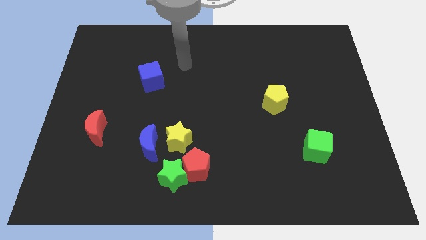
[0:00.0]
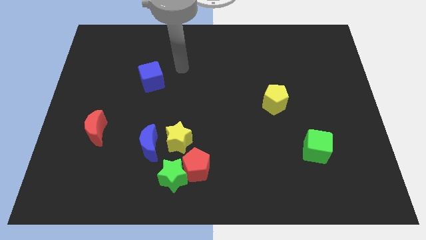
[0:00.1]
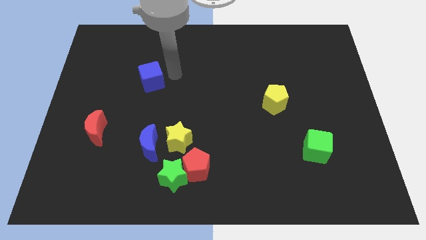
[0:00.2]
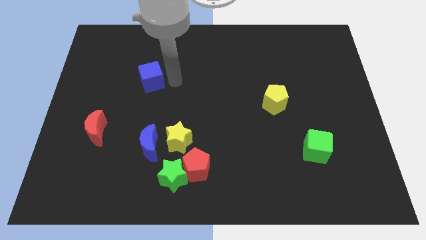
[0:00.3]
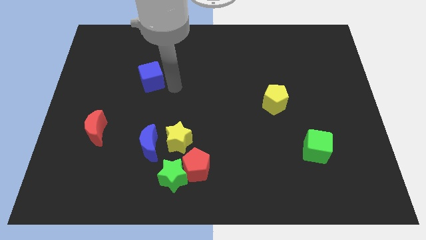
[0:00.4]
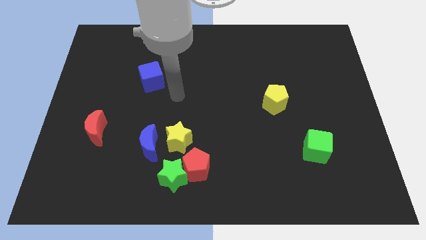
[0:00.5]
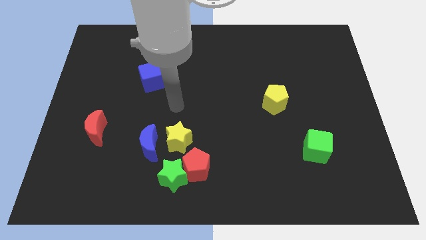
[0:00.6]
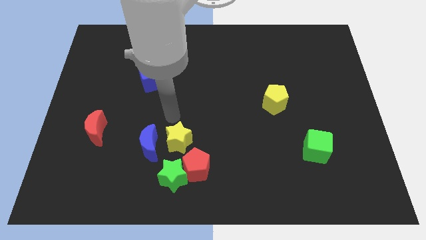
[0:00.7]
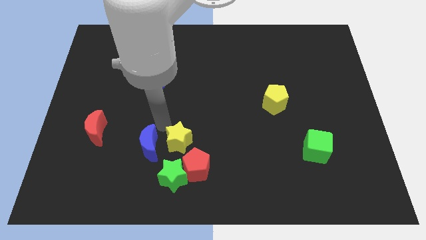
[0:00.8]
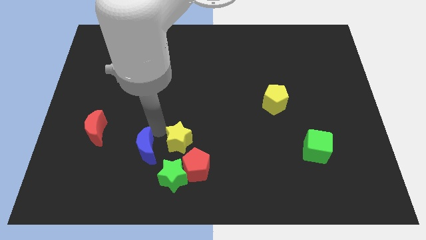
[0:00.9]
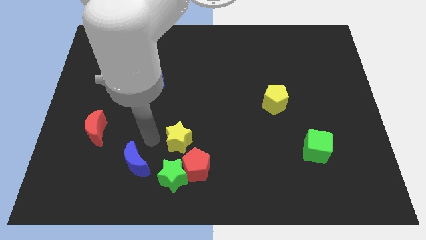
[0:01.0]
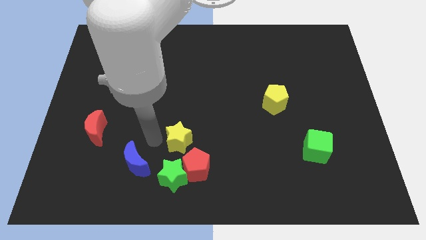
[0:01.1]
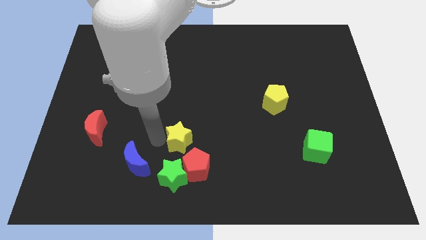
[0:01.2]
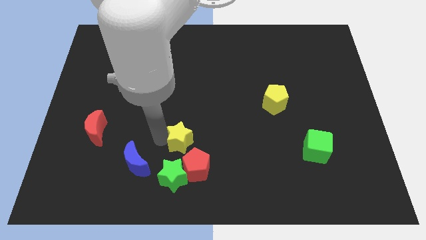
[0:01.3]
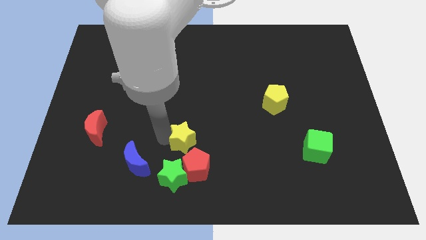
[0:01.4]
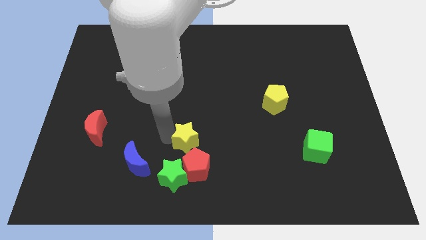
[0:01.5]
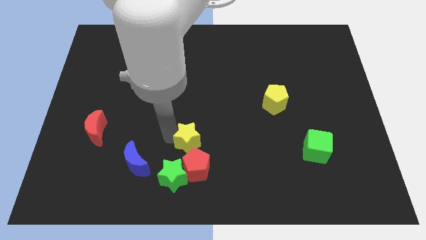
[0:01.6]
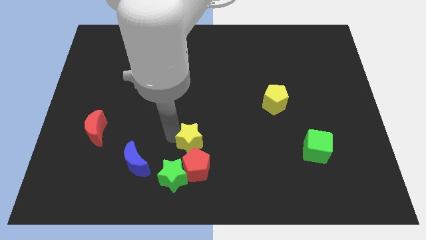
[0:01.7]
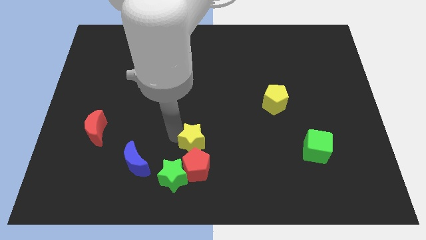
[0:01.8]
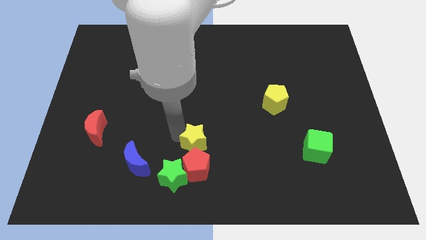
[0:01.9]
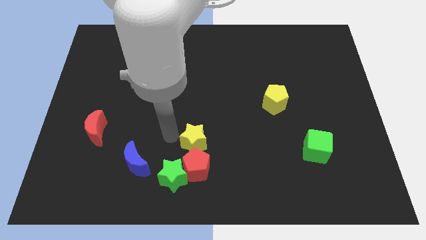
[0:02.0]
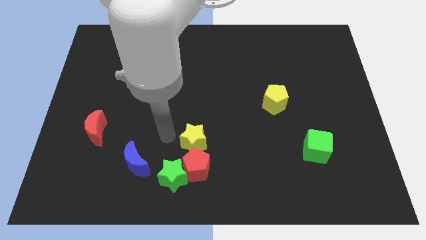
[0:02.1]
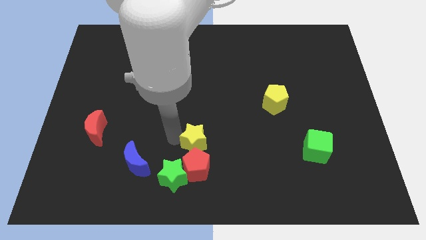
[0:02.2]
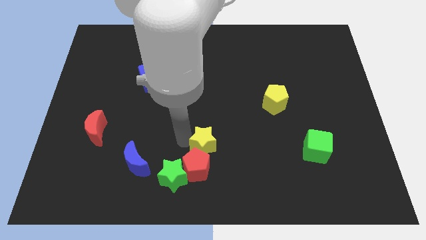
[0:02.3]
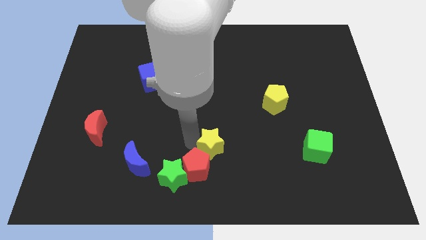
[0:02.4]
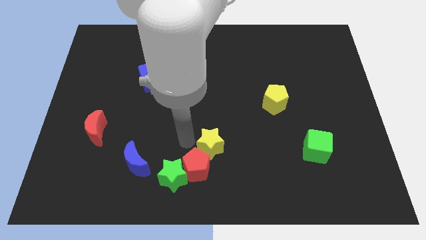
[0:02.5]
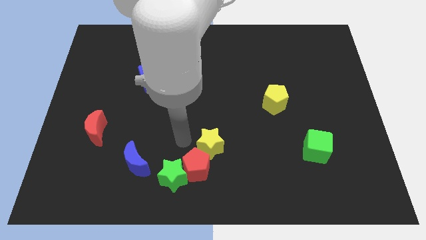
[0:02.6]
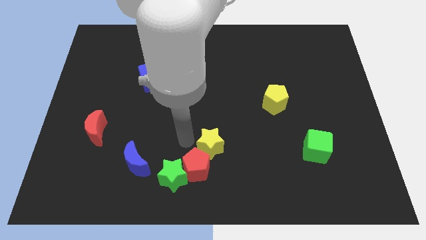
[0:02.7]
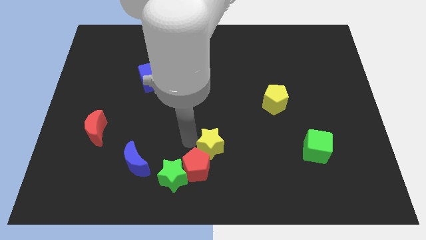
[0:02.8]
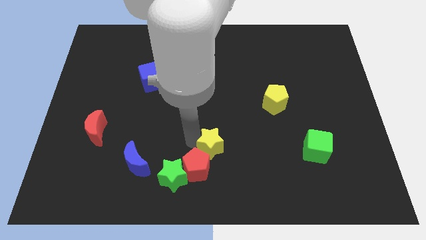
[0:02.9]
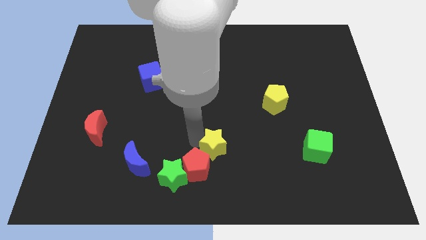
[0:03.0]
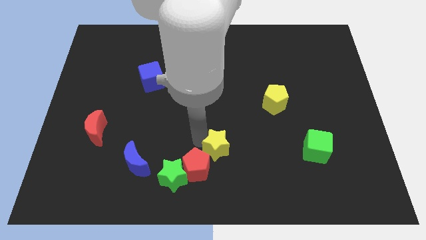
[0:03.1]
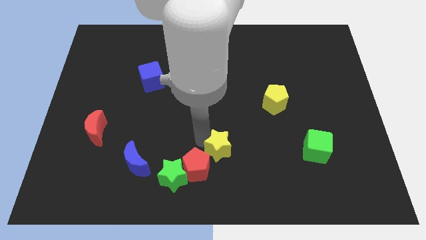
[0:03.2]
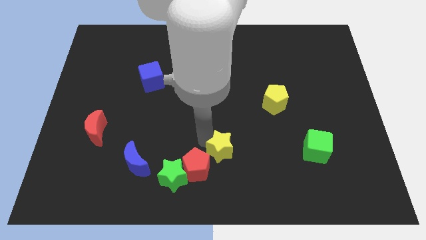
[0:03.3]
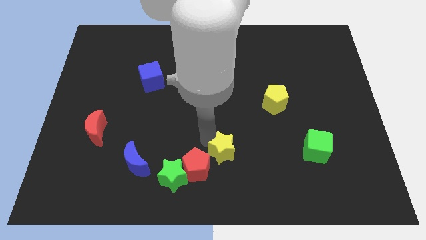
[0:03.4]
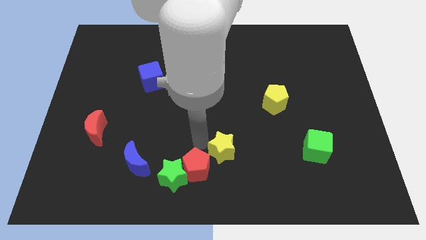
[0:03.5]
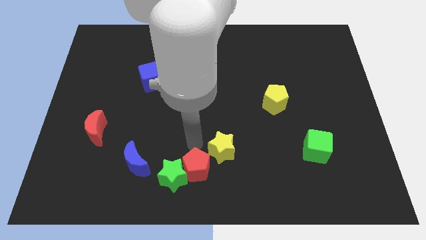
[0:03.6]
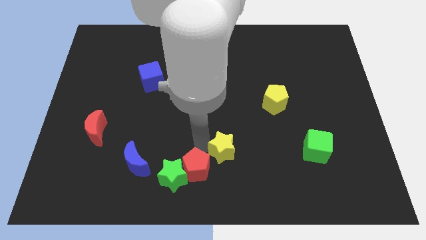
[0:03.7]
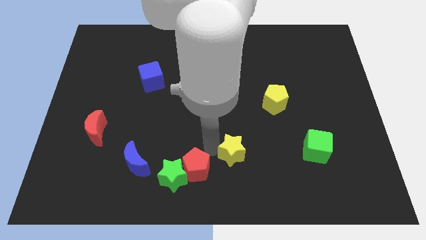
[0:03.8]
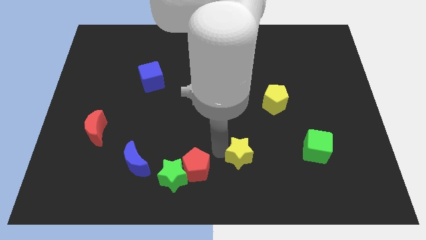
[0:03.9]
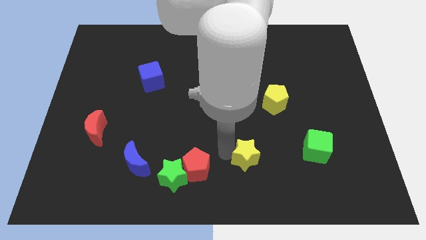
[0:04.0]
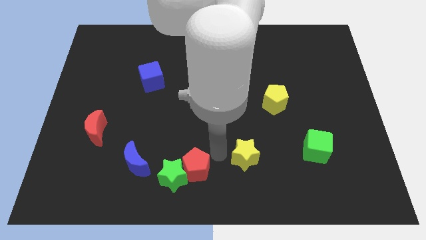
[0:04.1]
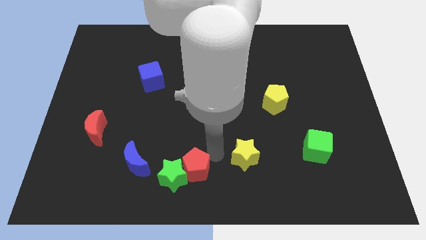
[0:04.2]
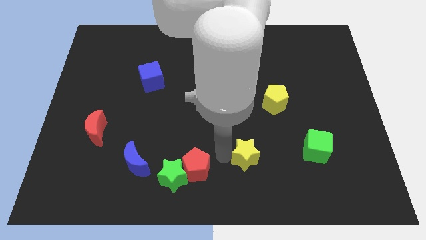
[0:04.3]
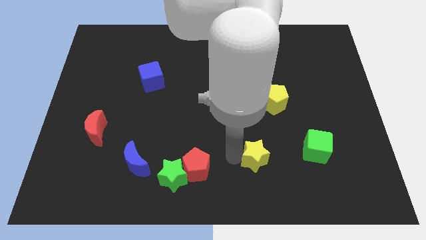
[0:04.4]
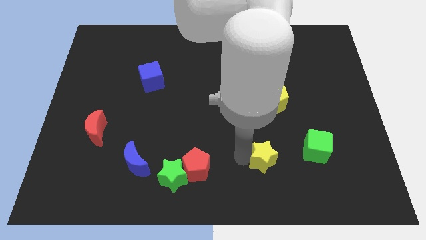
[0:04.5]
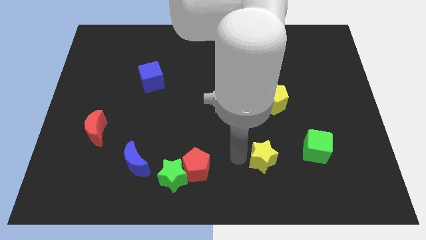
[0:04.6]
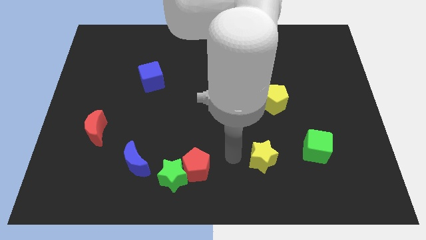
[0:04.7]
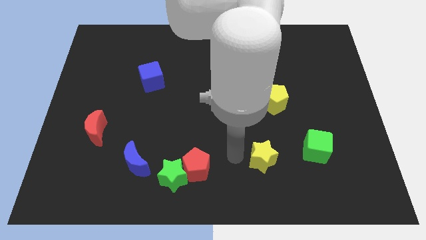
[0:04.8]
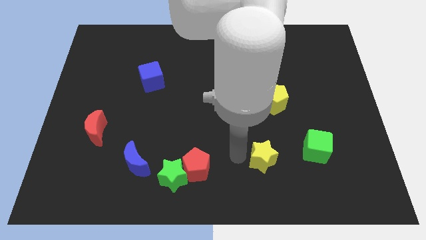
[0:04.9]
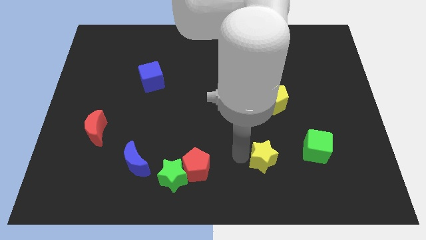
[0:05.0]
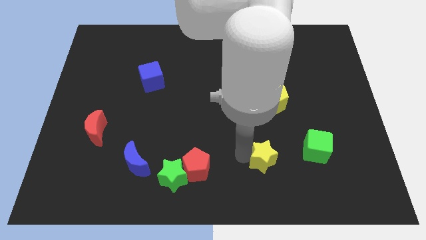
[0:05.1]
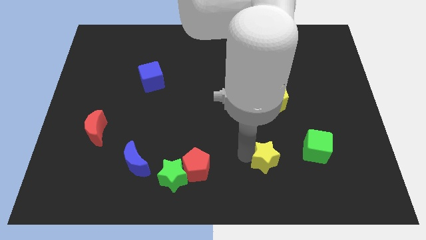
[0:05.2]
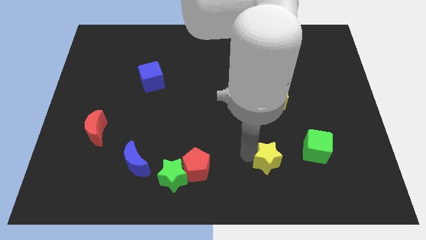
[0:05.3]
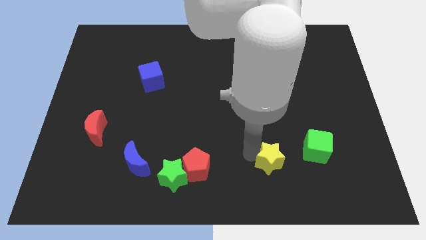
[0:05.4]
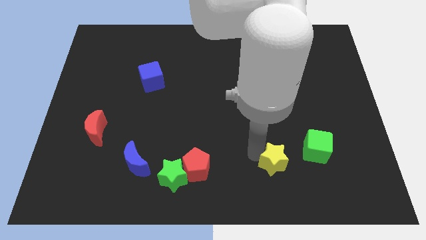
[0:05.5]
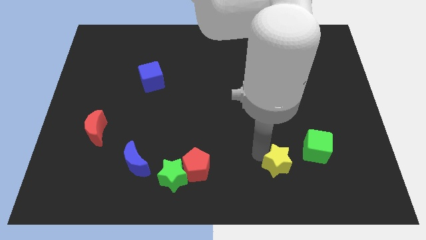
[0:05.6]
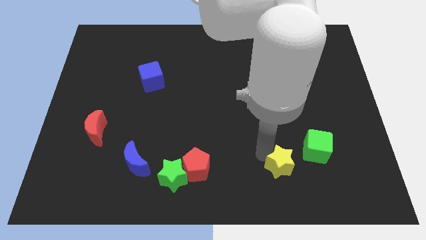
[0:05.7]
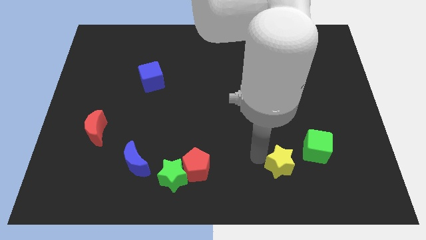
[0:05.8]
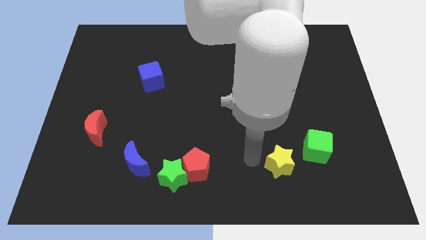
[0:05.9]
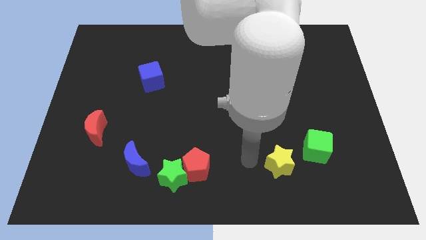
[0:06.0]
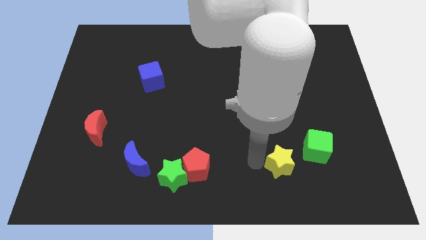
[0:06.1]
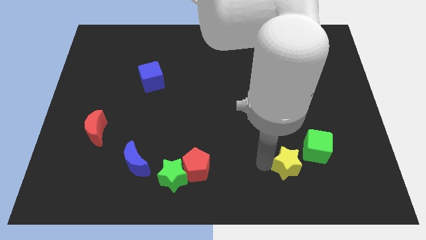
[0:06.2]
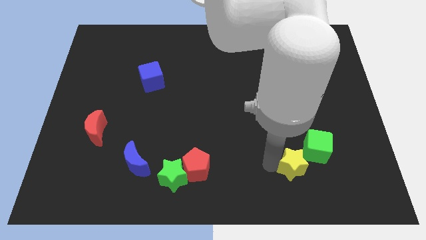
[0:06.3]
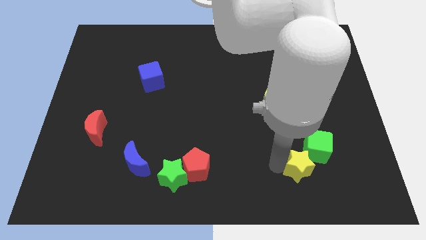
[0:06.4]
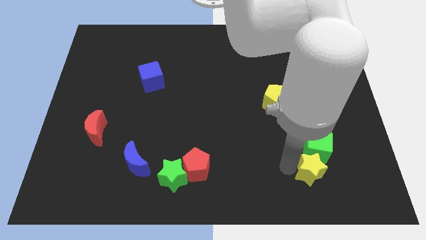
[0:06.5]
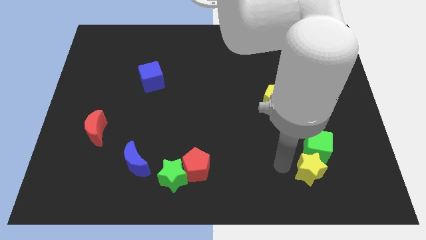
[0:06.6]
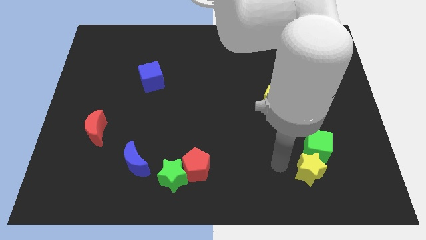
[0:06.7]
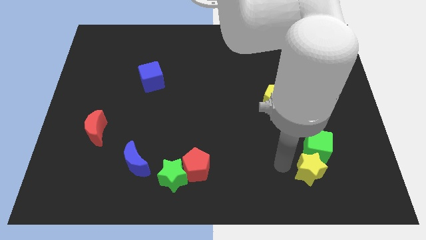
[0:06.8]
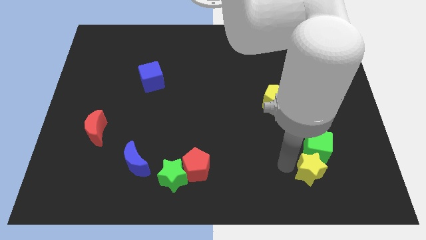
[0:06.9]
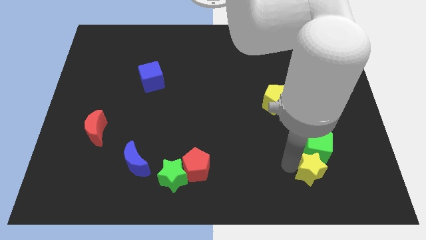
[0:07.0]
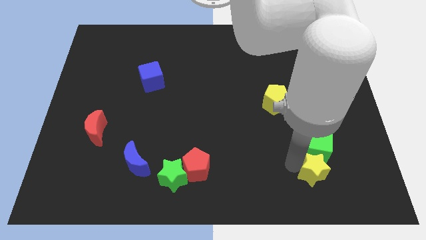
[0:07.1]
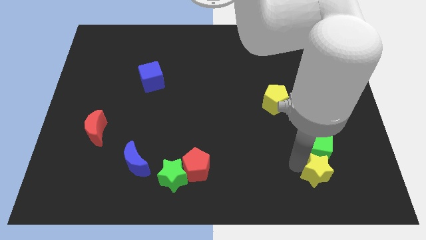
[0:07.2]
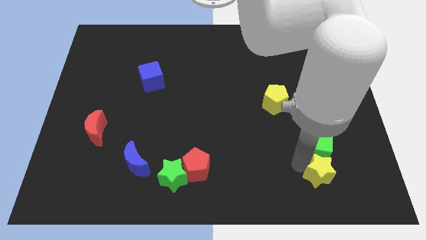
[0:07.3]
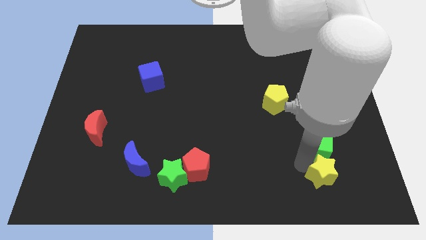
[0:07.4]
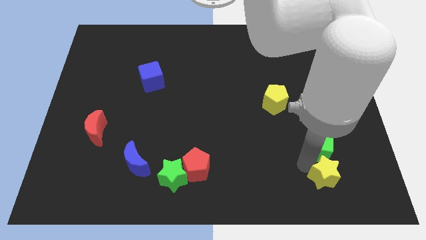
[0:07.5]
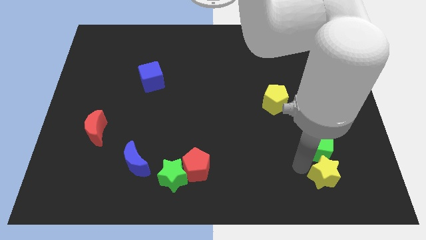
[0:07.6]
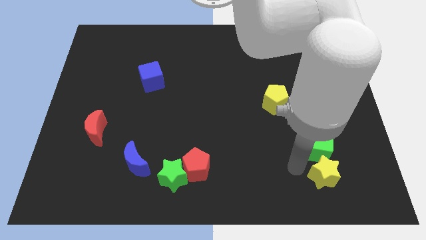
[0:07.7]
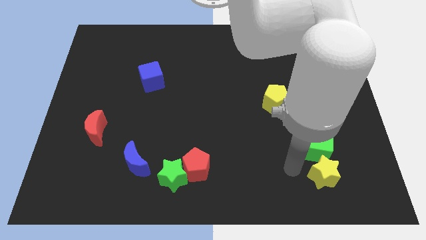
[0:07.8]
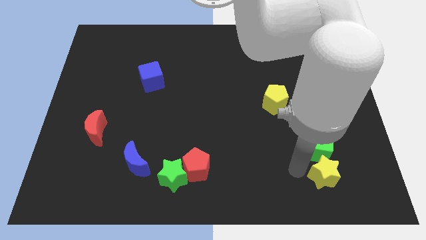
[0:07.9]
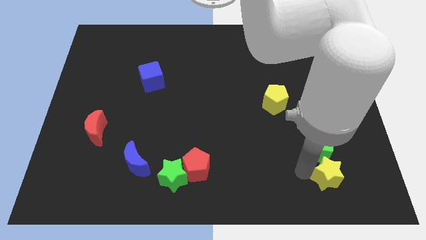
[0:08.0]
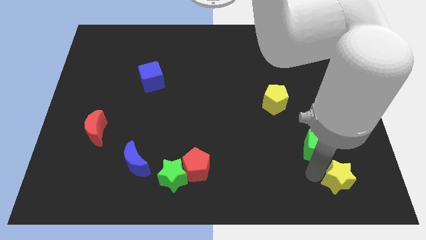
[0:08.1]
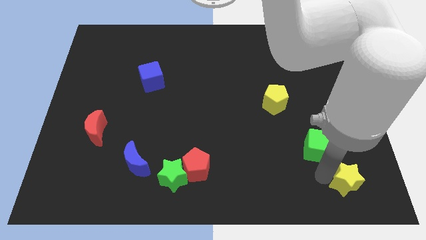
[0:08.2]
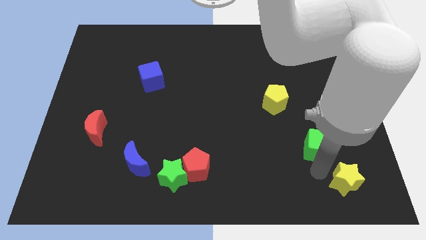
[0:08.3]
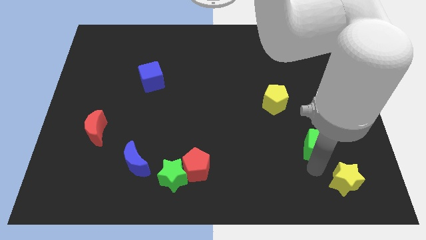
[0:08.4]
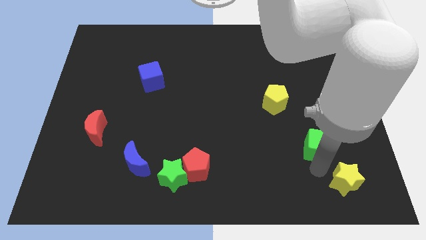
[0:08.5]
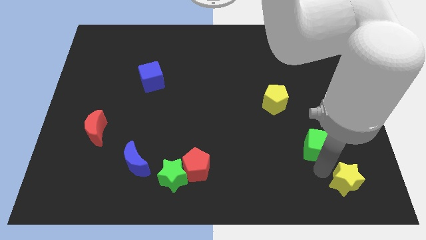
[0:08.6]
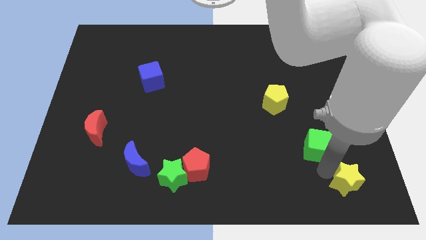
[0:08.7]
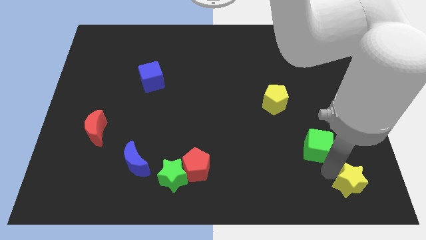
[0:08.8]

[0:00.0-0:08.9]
slide the yellow star to the lower right corner
